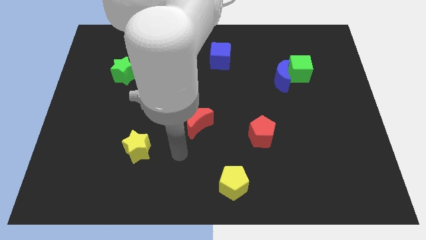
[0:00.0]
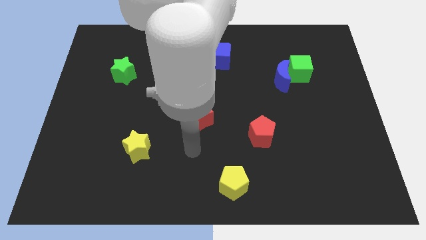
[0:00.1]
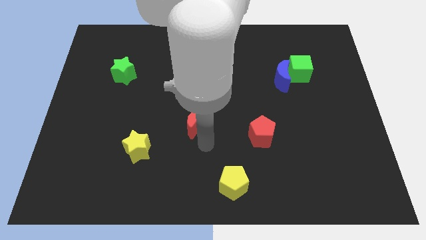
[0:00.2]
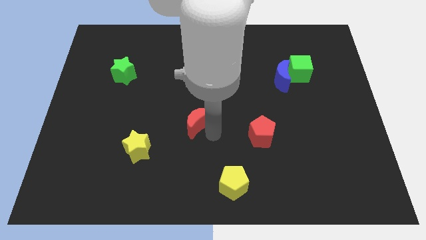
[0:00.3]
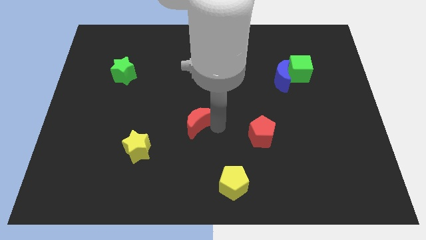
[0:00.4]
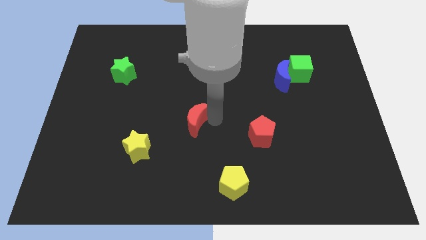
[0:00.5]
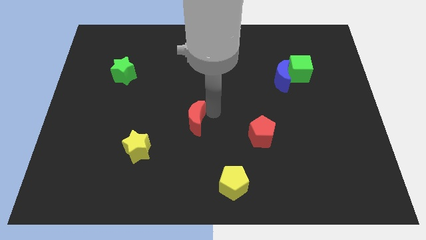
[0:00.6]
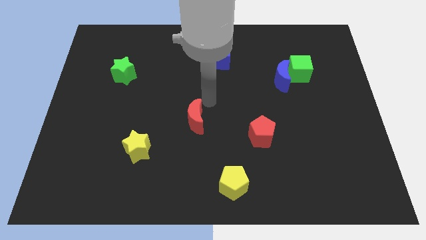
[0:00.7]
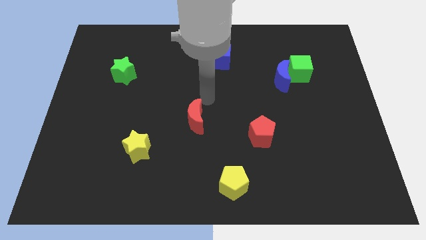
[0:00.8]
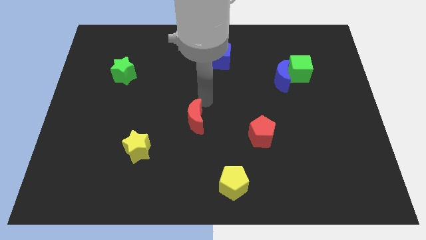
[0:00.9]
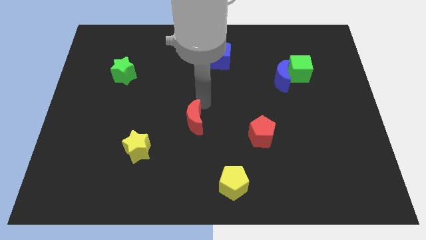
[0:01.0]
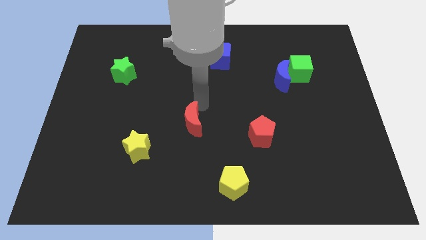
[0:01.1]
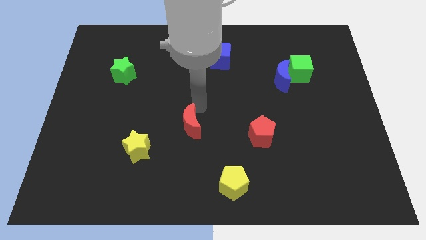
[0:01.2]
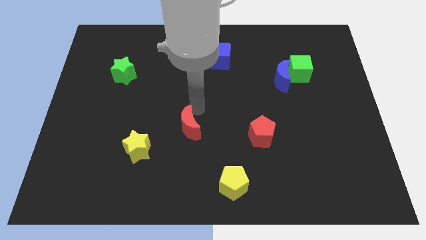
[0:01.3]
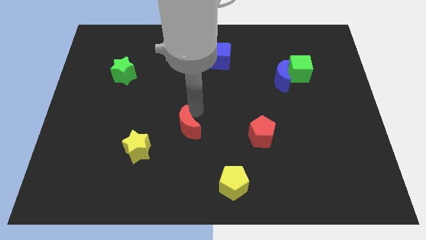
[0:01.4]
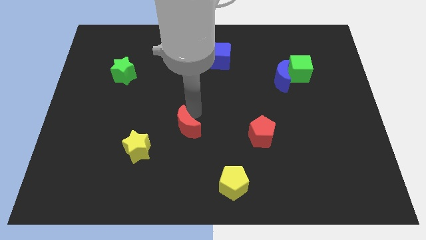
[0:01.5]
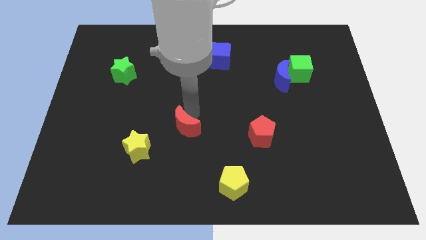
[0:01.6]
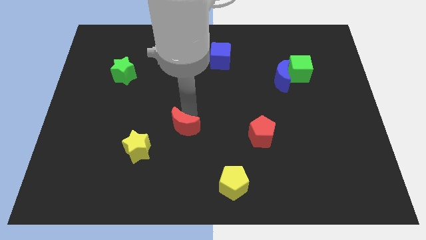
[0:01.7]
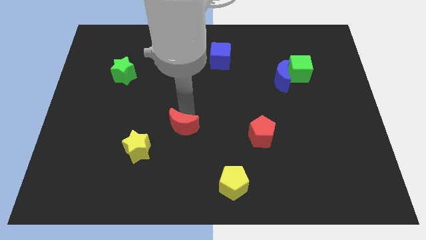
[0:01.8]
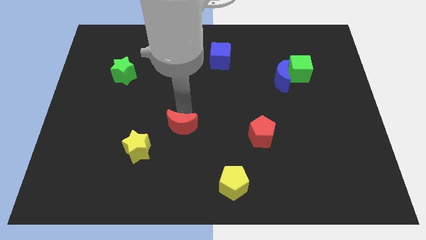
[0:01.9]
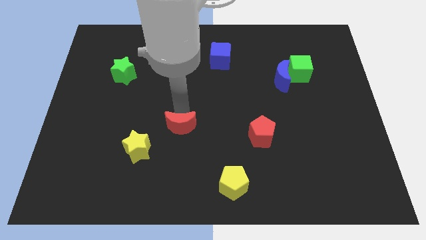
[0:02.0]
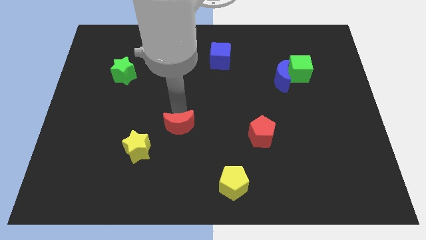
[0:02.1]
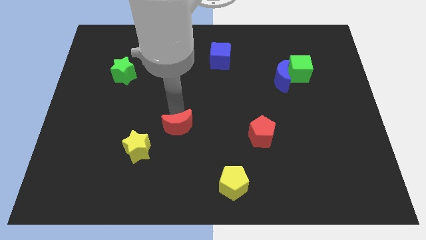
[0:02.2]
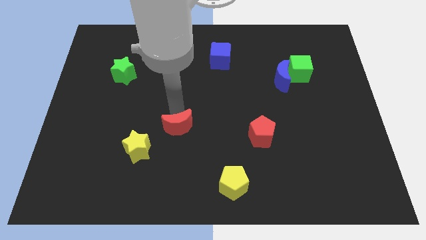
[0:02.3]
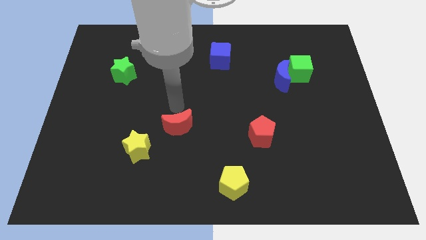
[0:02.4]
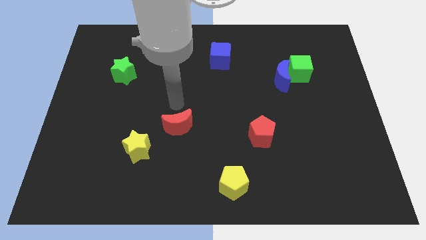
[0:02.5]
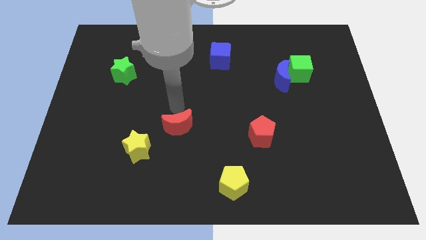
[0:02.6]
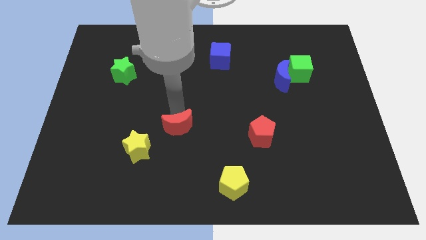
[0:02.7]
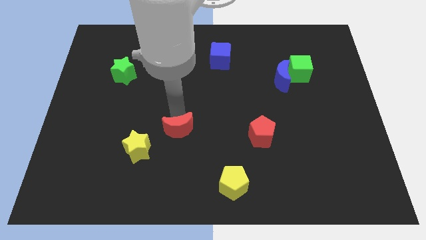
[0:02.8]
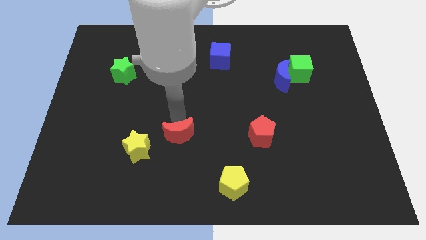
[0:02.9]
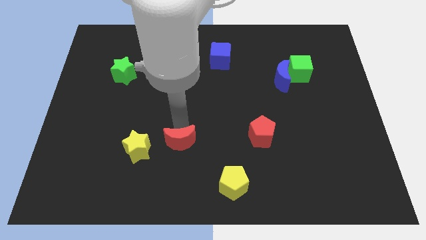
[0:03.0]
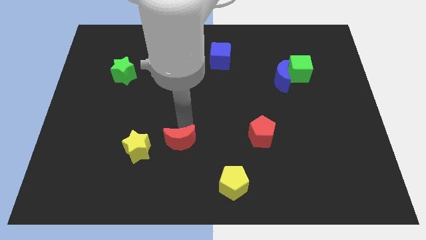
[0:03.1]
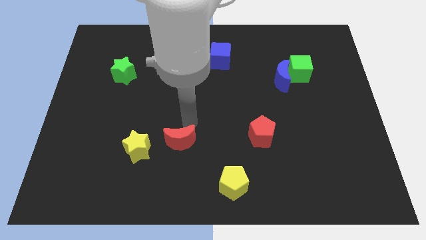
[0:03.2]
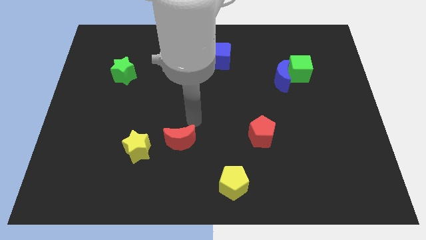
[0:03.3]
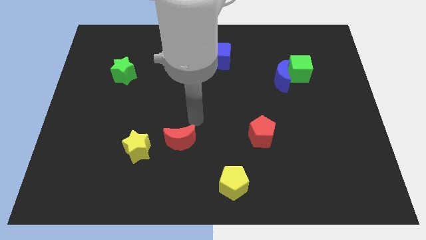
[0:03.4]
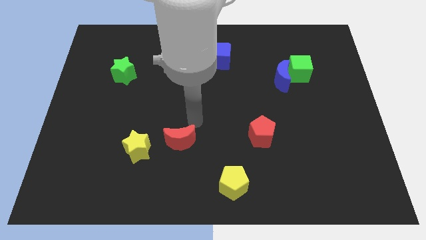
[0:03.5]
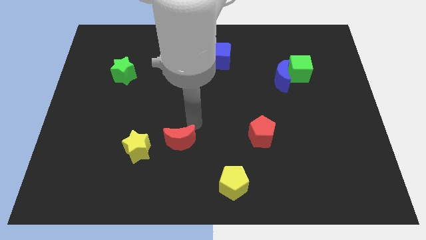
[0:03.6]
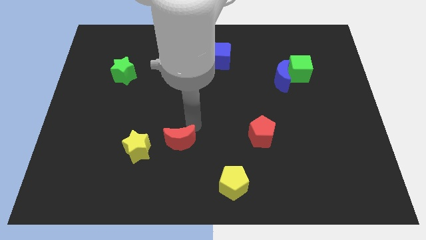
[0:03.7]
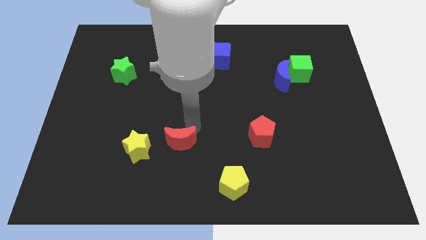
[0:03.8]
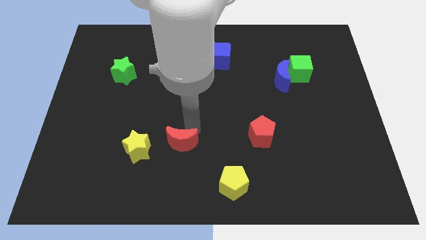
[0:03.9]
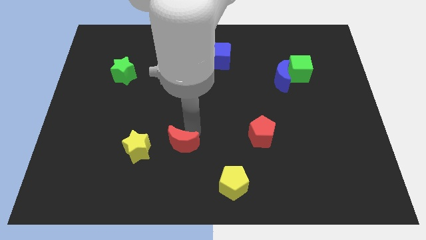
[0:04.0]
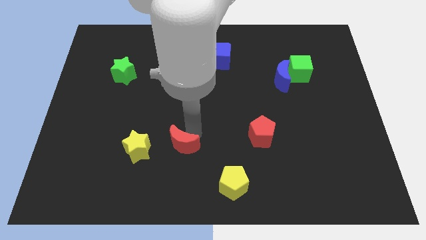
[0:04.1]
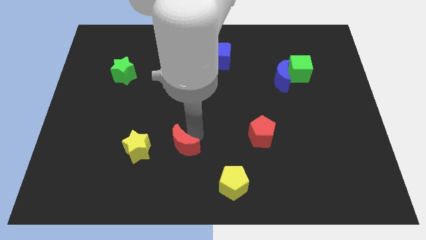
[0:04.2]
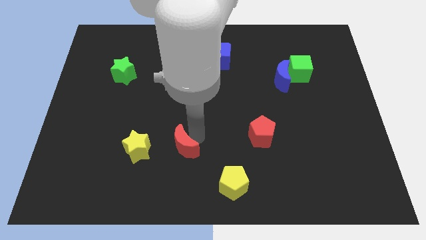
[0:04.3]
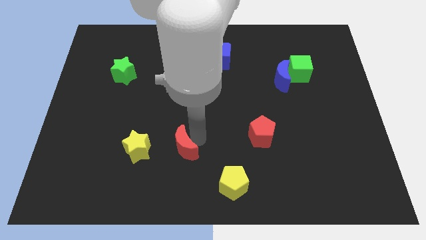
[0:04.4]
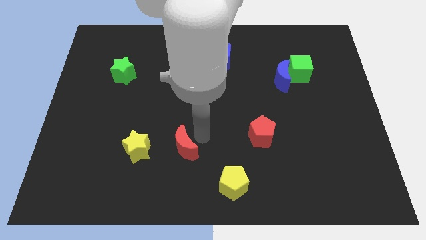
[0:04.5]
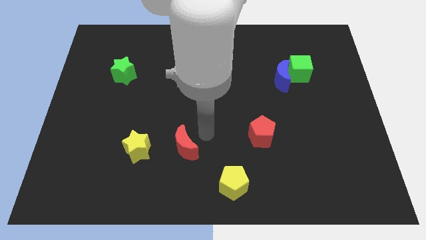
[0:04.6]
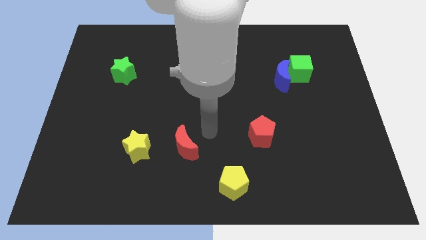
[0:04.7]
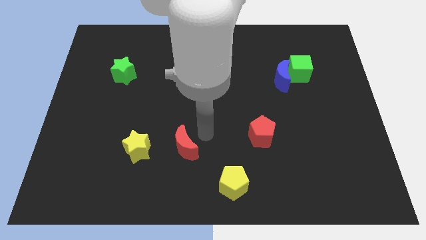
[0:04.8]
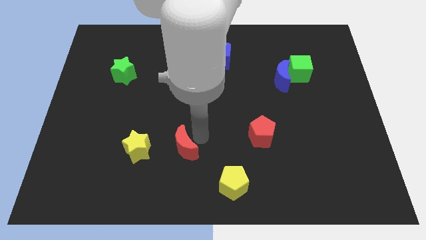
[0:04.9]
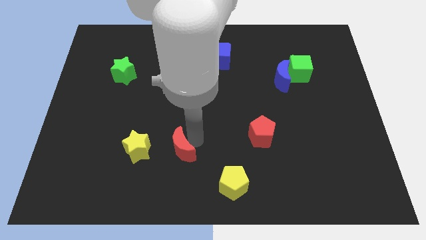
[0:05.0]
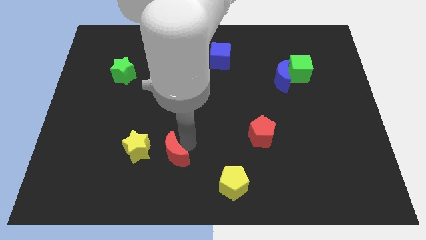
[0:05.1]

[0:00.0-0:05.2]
put the red moon to the bottom right side of the yellow star

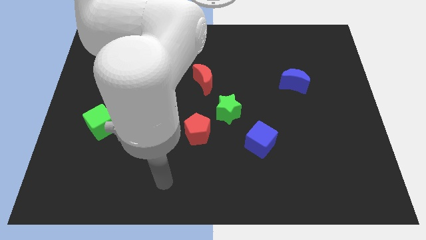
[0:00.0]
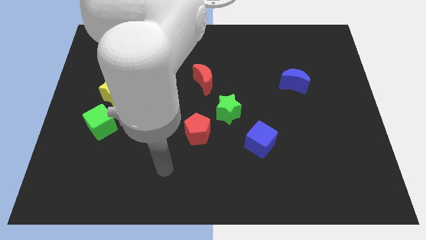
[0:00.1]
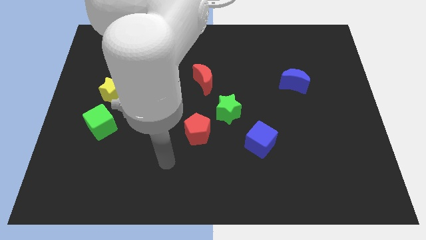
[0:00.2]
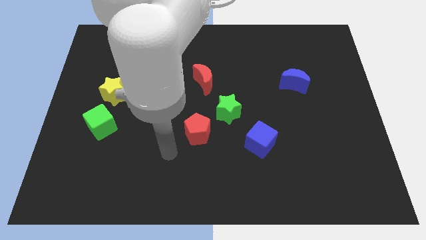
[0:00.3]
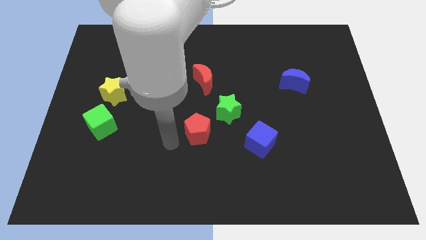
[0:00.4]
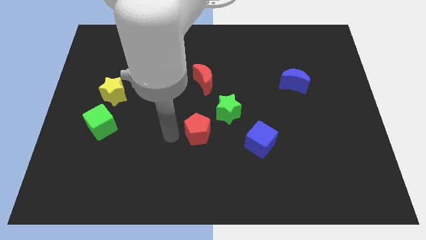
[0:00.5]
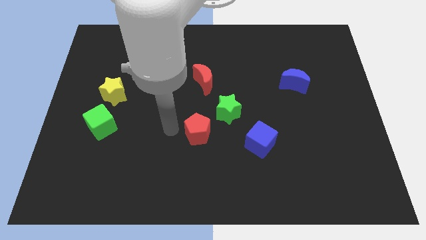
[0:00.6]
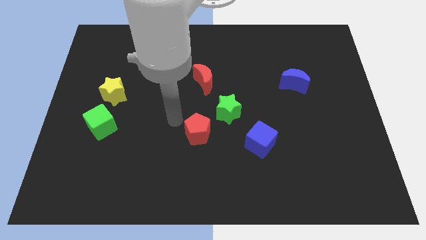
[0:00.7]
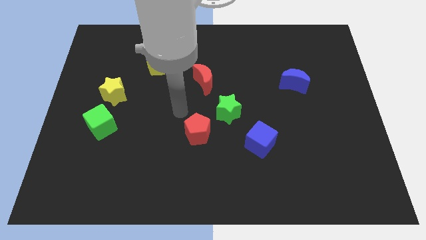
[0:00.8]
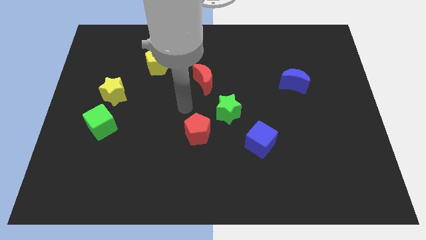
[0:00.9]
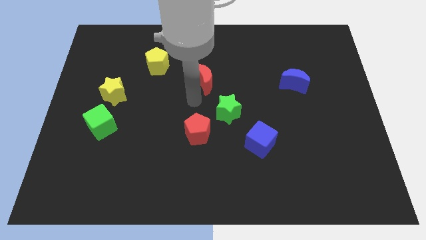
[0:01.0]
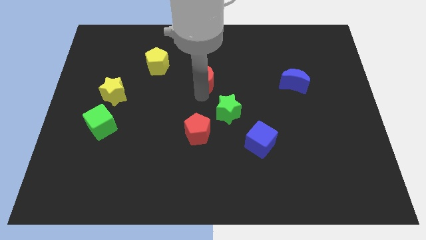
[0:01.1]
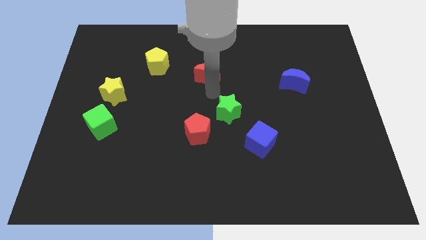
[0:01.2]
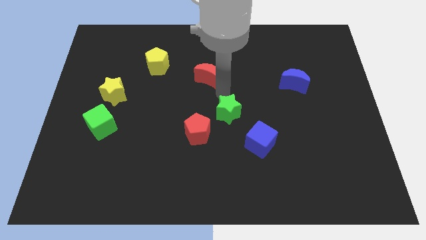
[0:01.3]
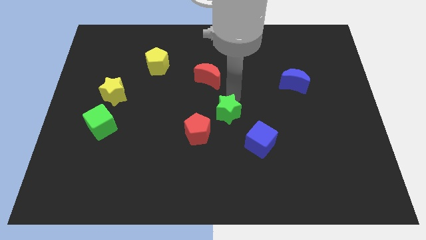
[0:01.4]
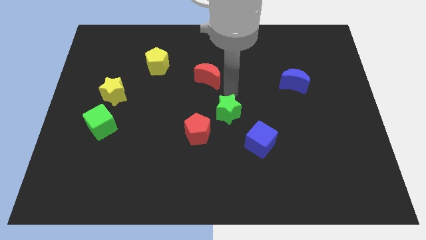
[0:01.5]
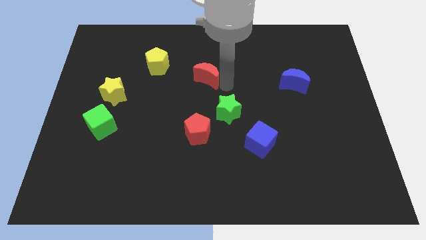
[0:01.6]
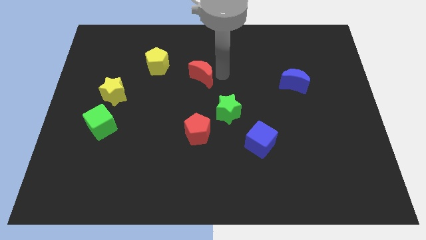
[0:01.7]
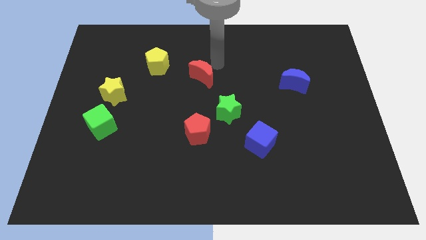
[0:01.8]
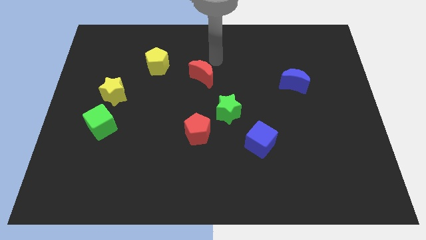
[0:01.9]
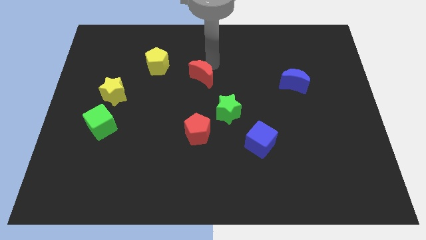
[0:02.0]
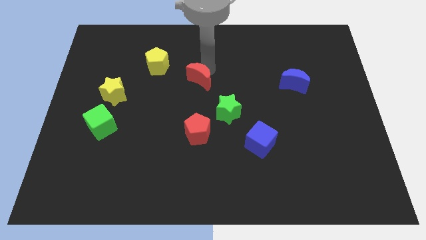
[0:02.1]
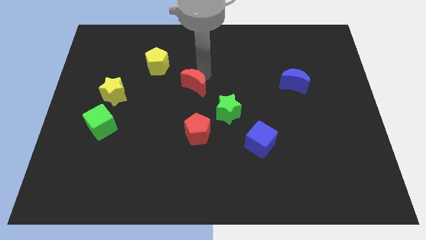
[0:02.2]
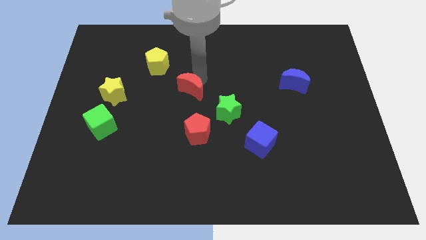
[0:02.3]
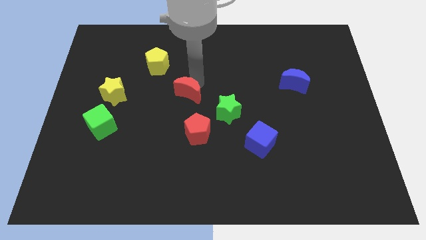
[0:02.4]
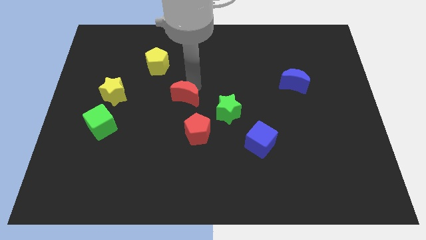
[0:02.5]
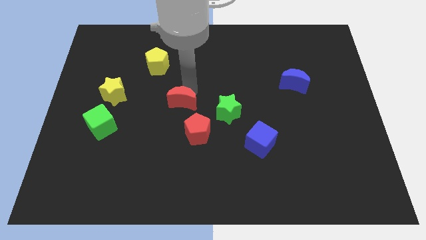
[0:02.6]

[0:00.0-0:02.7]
push the red moon to the top left side of the red pentagon
